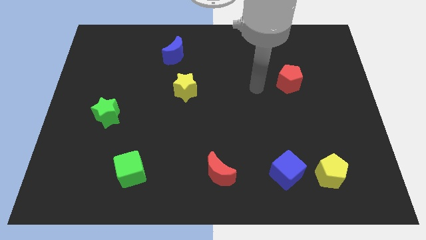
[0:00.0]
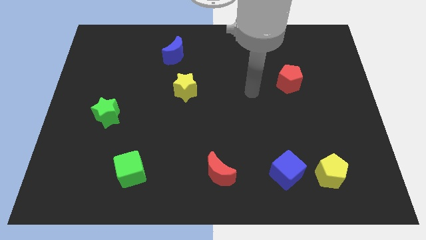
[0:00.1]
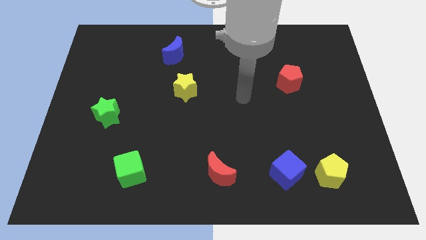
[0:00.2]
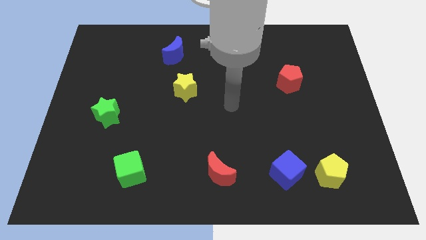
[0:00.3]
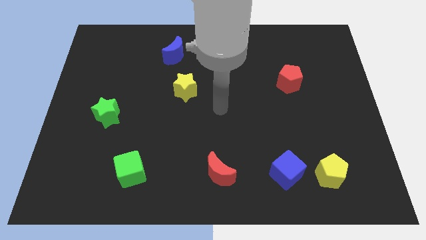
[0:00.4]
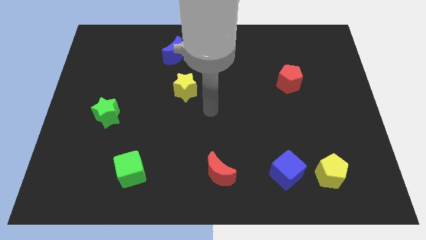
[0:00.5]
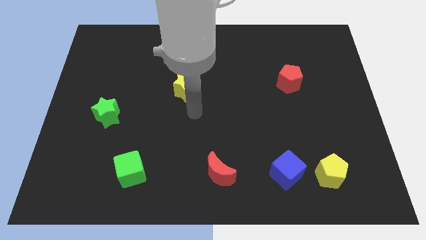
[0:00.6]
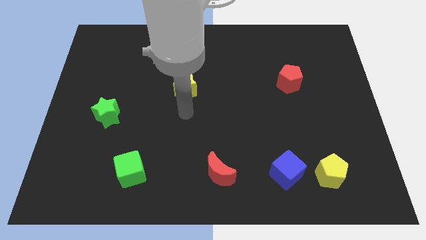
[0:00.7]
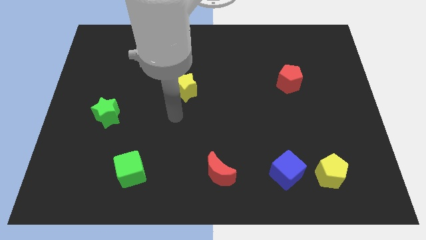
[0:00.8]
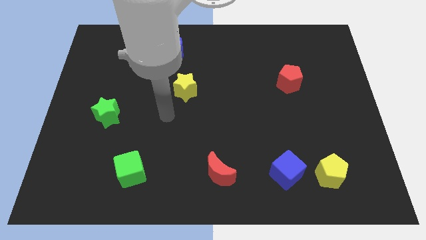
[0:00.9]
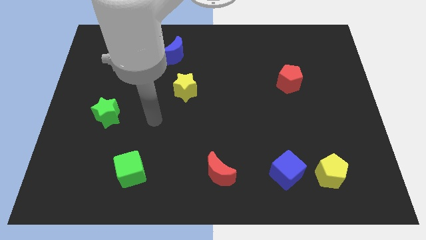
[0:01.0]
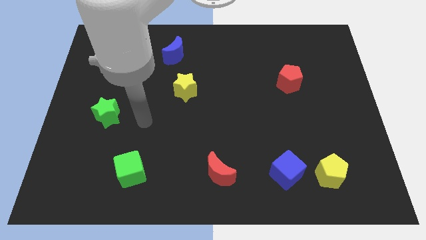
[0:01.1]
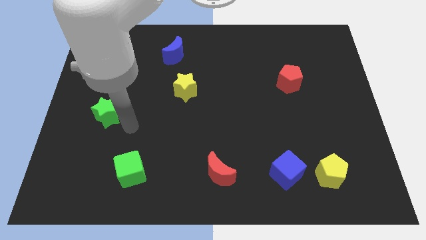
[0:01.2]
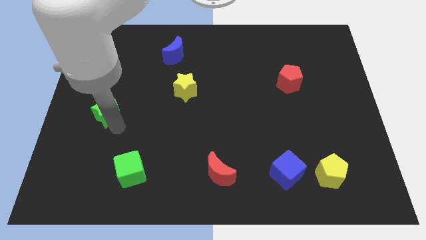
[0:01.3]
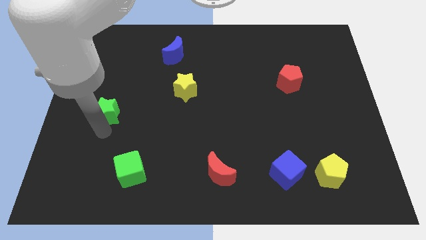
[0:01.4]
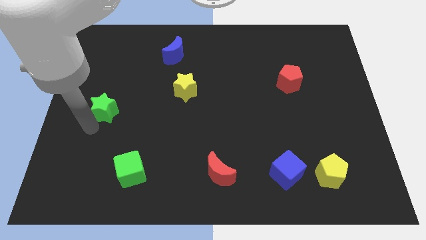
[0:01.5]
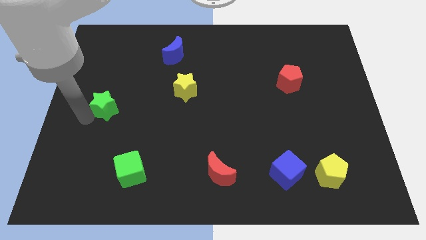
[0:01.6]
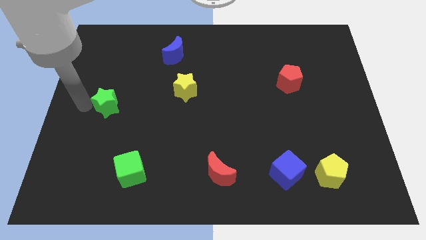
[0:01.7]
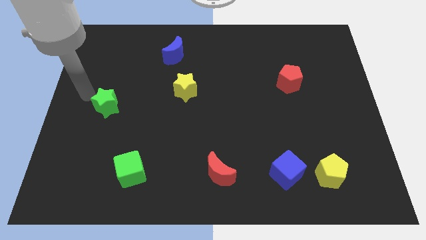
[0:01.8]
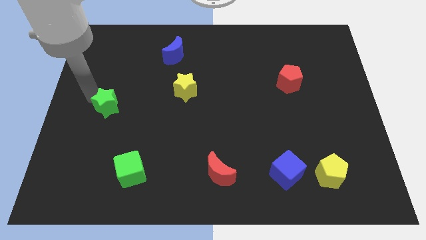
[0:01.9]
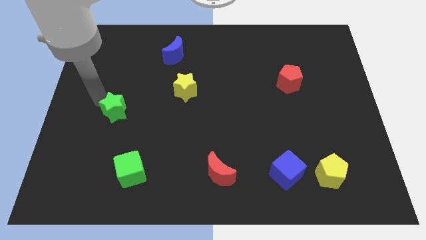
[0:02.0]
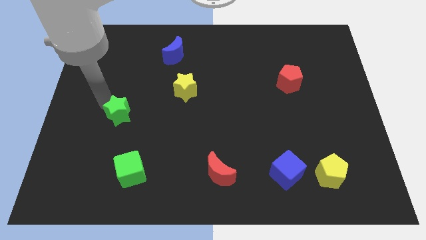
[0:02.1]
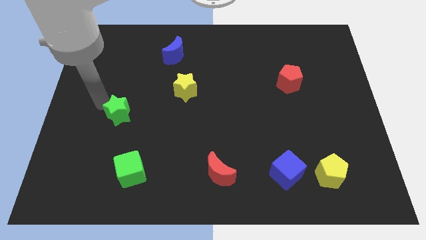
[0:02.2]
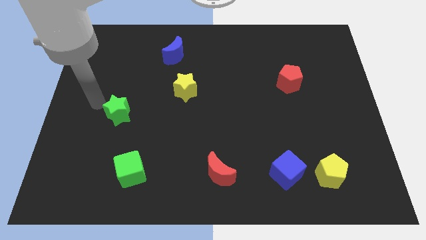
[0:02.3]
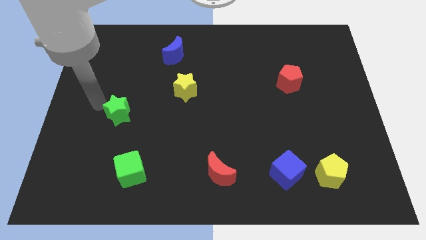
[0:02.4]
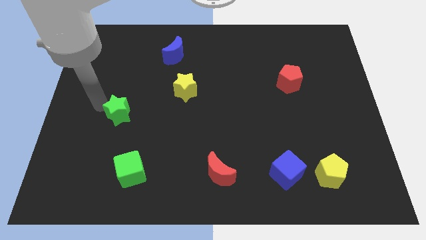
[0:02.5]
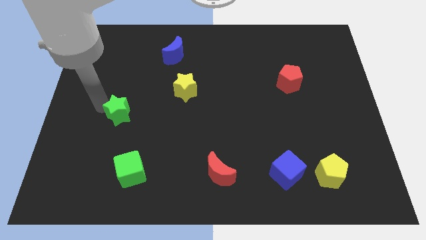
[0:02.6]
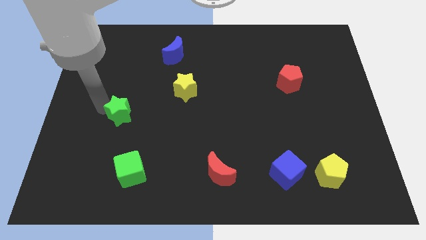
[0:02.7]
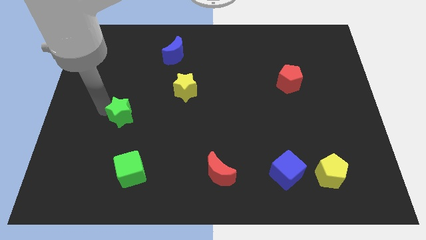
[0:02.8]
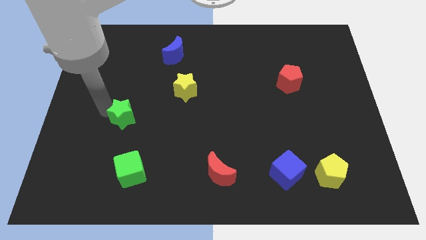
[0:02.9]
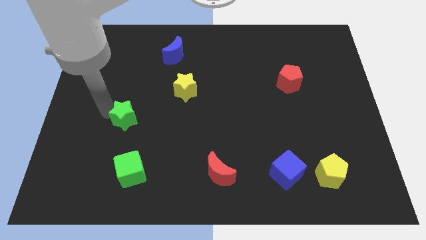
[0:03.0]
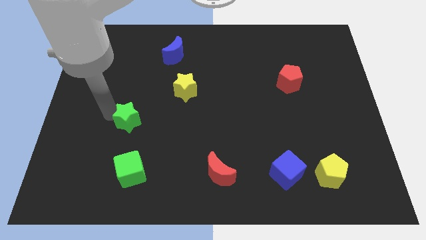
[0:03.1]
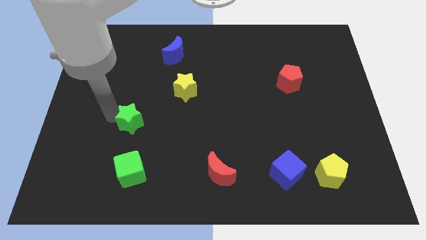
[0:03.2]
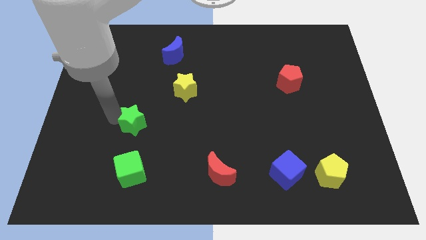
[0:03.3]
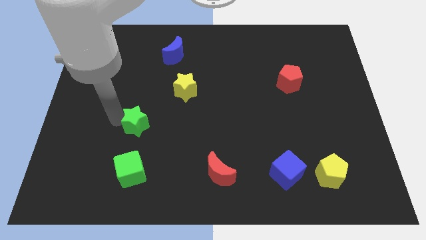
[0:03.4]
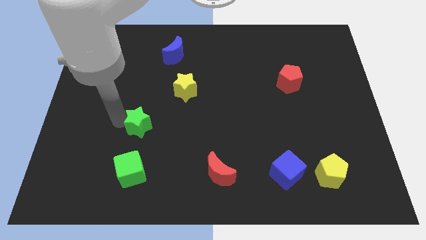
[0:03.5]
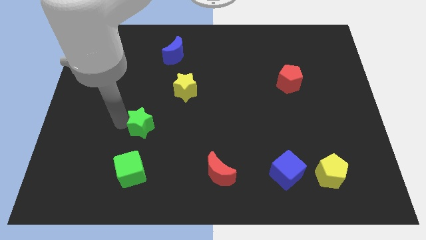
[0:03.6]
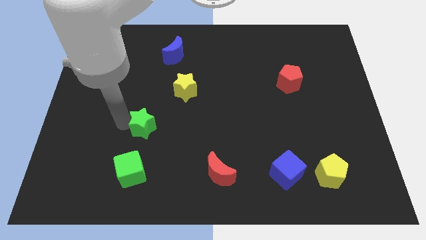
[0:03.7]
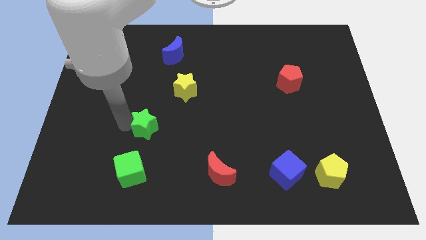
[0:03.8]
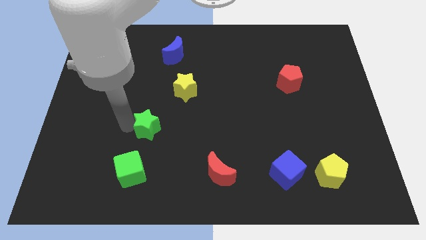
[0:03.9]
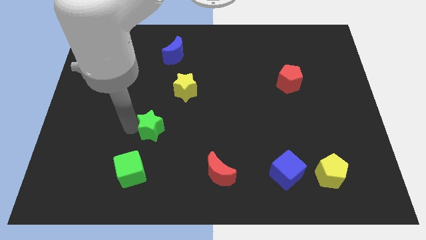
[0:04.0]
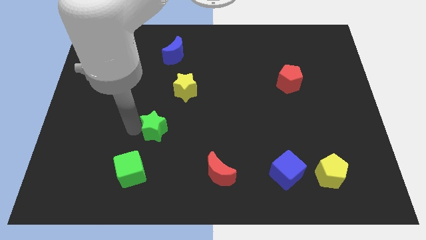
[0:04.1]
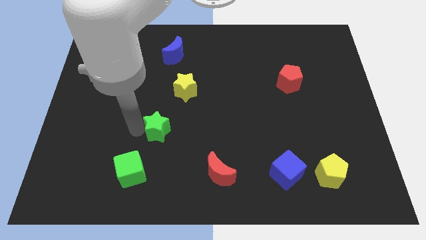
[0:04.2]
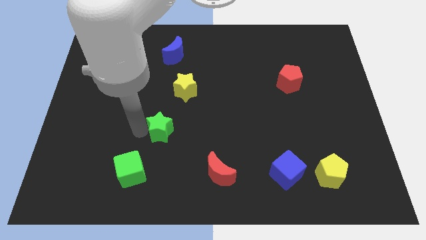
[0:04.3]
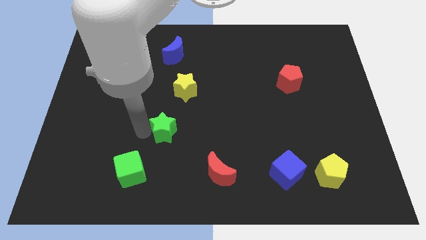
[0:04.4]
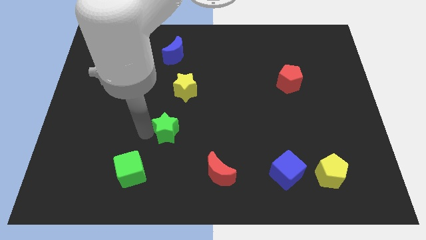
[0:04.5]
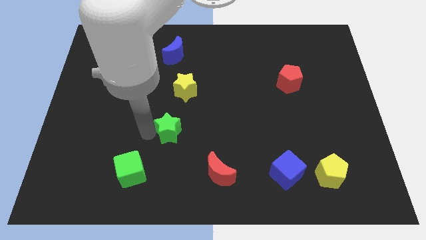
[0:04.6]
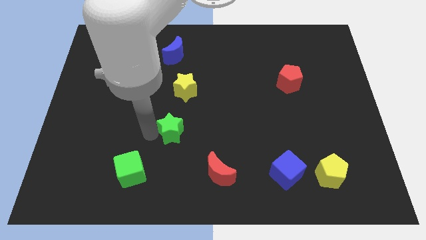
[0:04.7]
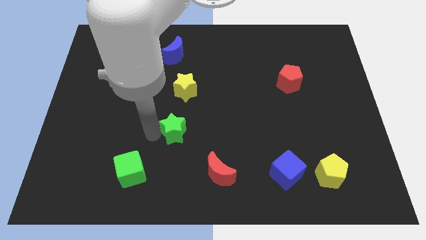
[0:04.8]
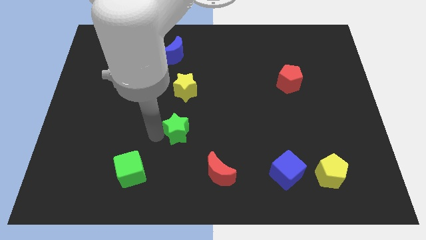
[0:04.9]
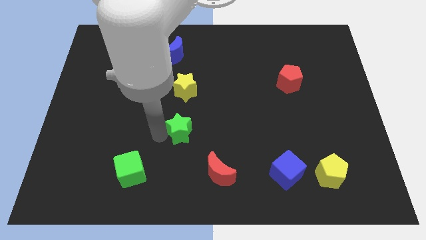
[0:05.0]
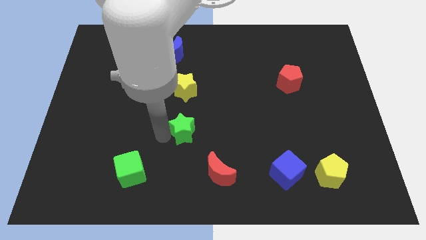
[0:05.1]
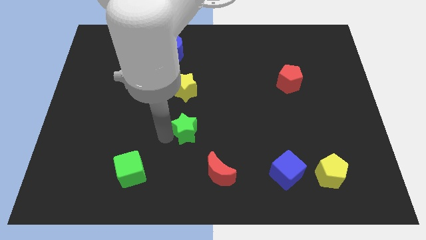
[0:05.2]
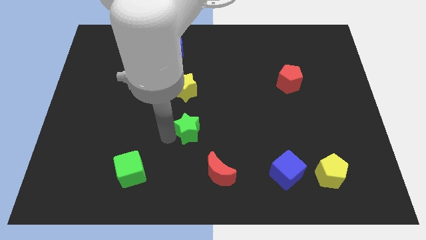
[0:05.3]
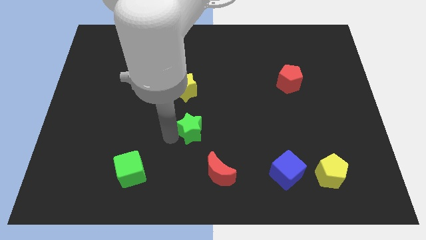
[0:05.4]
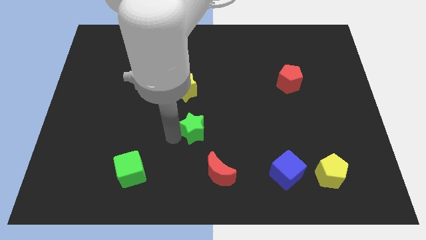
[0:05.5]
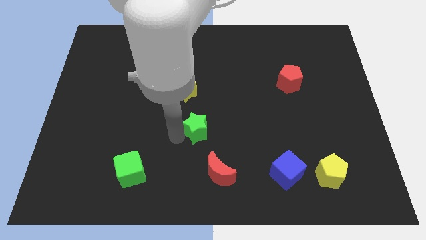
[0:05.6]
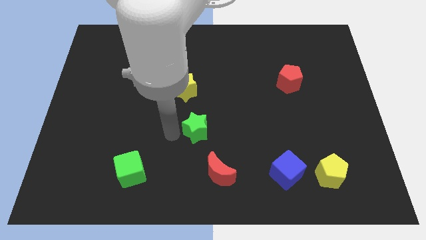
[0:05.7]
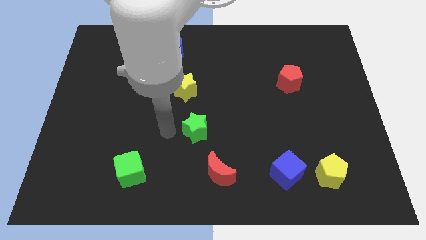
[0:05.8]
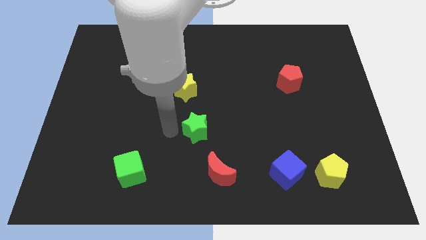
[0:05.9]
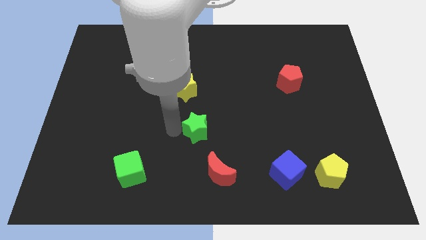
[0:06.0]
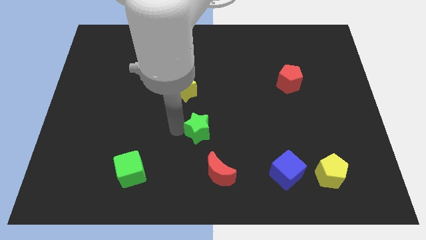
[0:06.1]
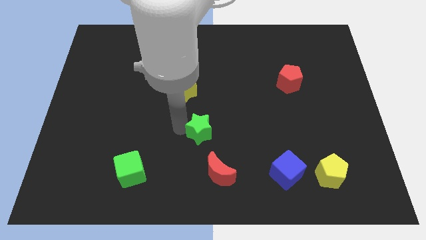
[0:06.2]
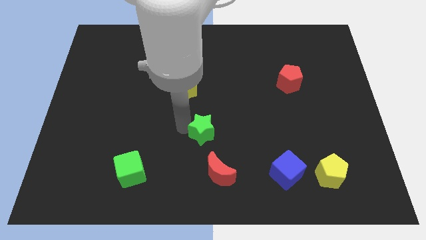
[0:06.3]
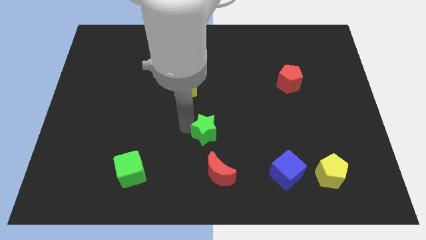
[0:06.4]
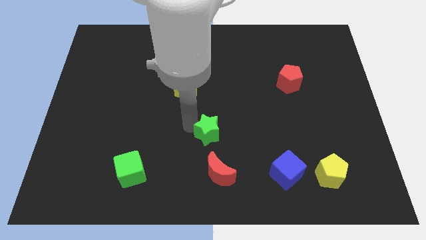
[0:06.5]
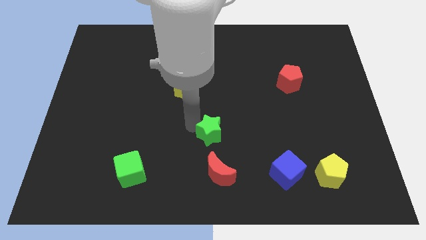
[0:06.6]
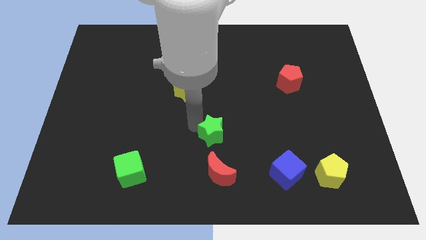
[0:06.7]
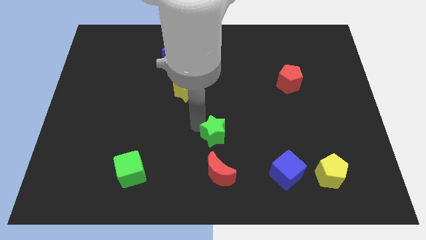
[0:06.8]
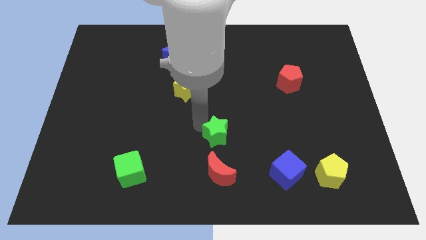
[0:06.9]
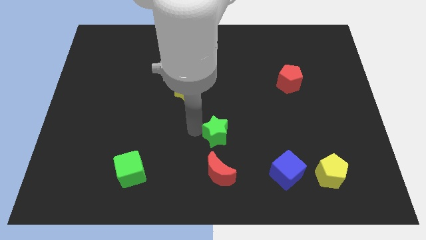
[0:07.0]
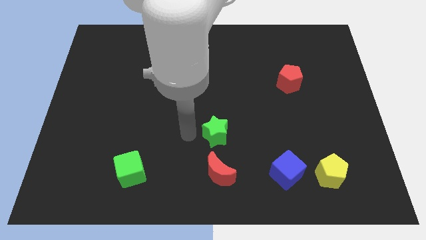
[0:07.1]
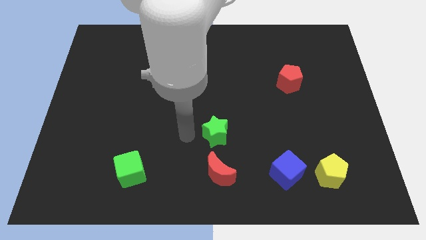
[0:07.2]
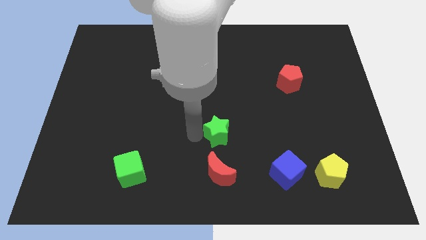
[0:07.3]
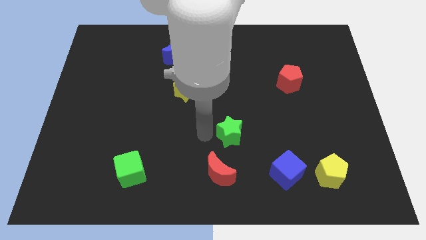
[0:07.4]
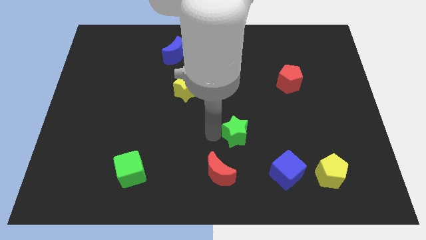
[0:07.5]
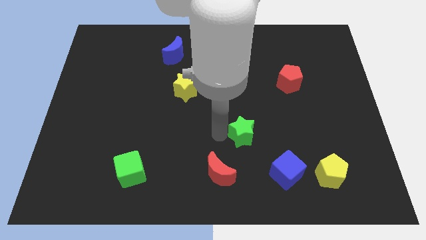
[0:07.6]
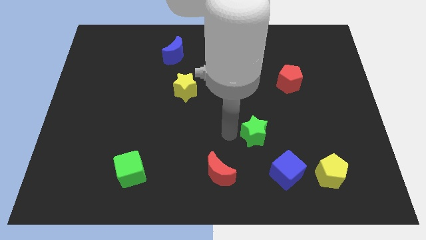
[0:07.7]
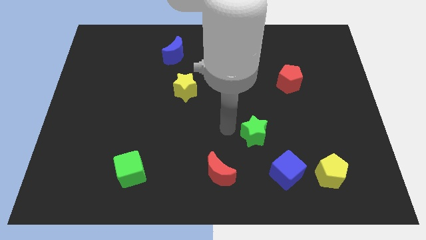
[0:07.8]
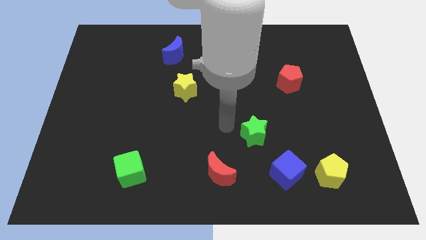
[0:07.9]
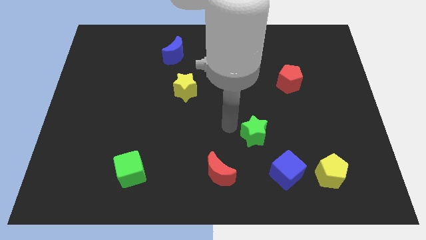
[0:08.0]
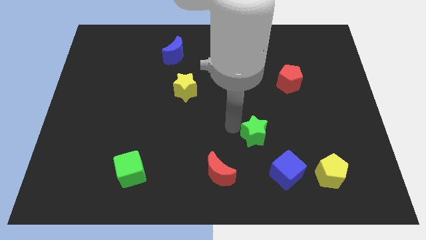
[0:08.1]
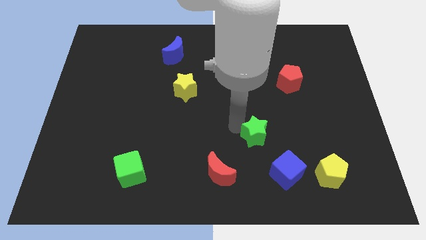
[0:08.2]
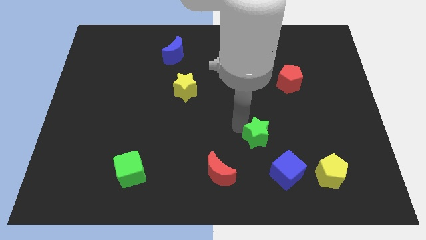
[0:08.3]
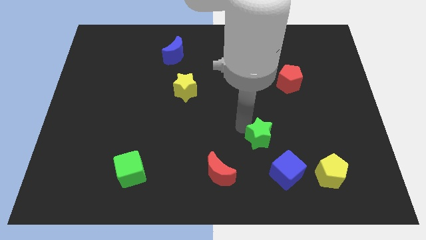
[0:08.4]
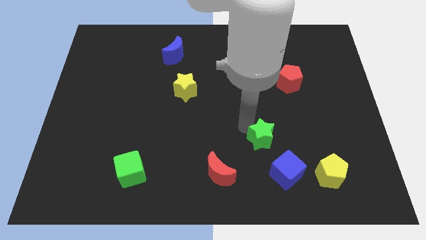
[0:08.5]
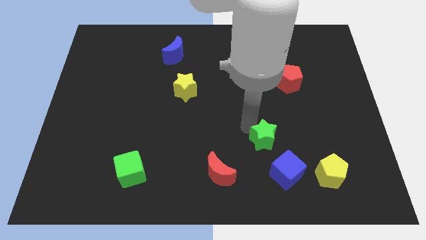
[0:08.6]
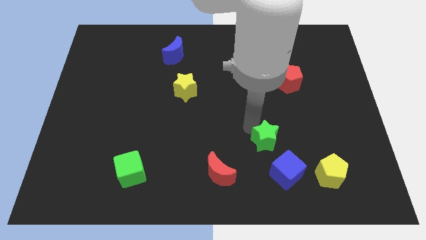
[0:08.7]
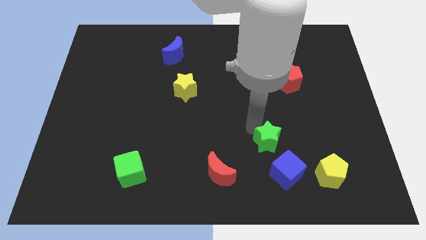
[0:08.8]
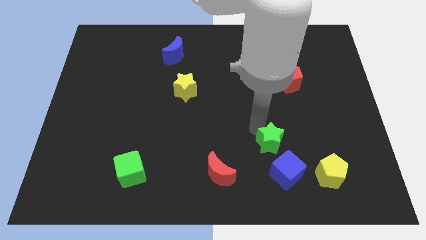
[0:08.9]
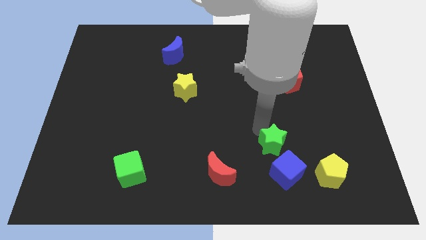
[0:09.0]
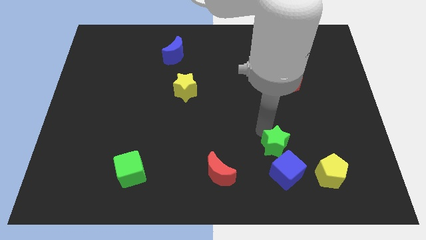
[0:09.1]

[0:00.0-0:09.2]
move the green star diagonally up and to the left of the yellow pentagon
